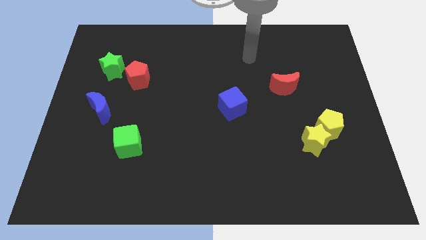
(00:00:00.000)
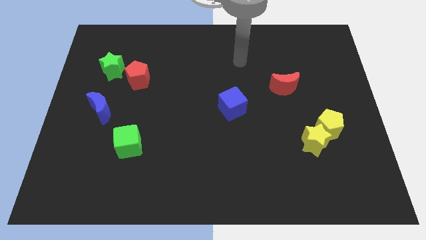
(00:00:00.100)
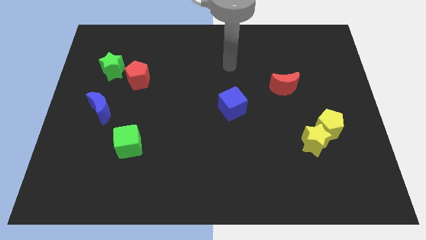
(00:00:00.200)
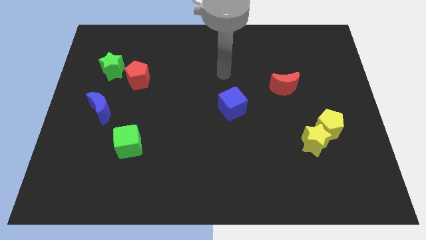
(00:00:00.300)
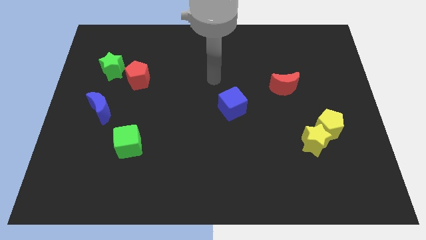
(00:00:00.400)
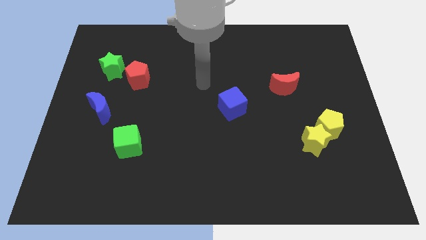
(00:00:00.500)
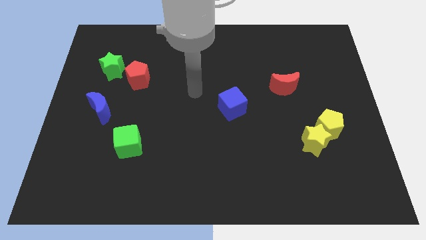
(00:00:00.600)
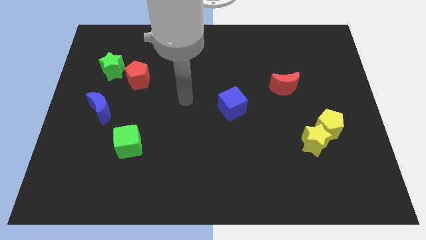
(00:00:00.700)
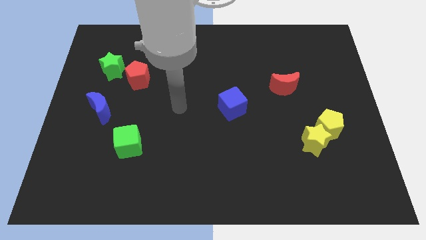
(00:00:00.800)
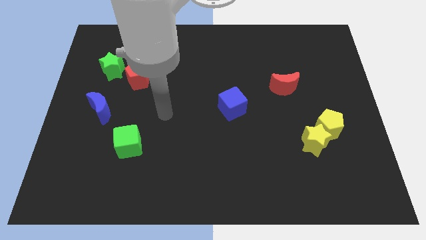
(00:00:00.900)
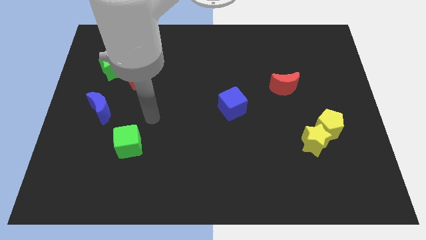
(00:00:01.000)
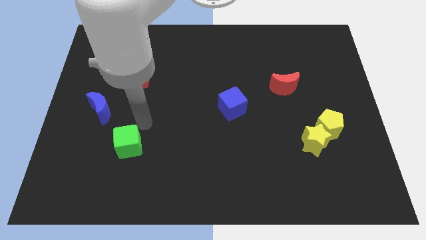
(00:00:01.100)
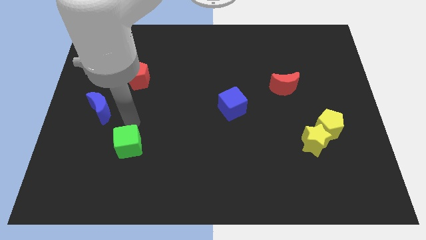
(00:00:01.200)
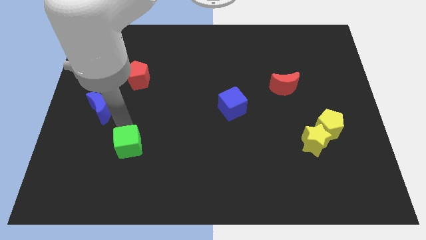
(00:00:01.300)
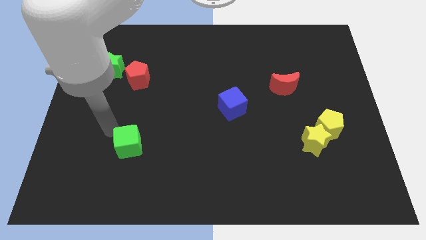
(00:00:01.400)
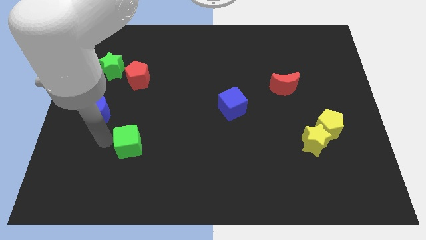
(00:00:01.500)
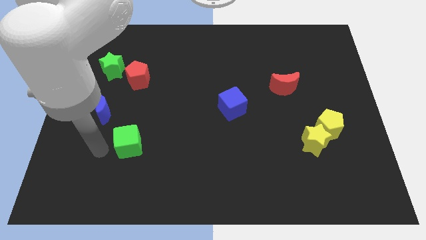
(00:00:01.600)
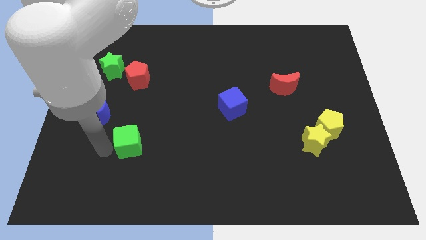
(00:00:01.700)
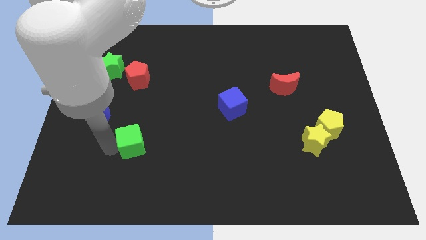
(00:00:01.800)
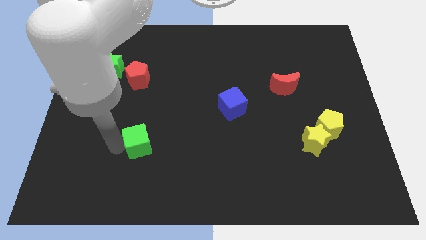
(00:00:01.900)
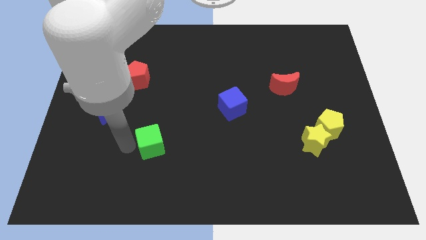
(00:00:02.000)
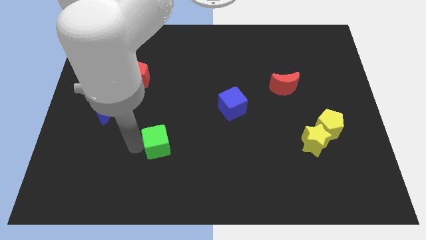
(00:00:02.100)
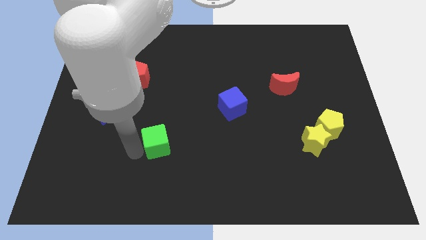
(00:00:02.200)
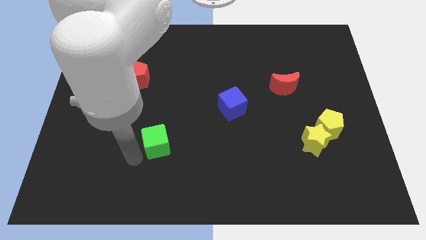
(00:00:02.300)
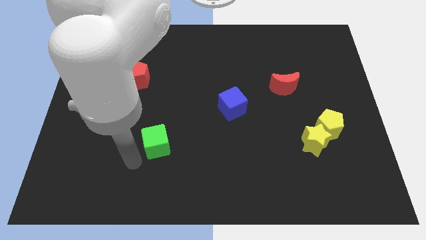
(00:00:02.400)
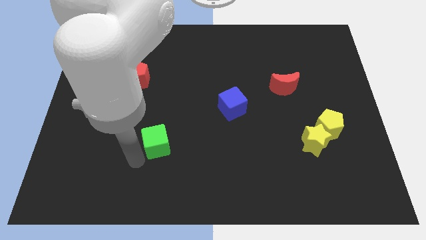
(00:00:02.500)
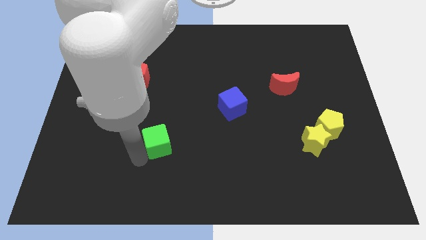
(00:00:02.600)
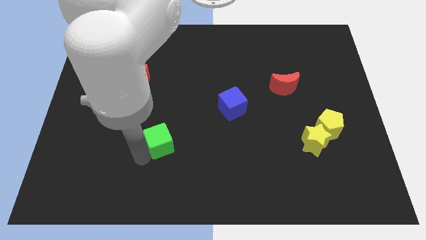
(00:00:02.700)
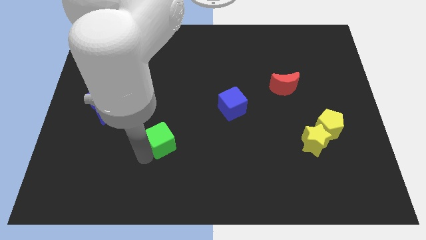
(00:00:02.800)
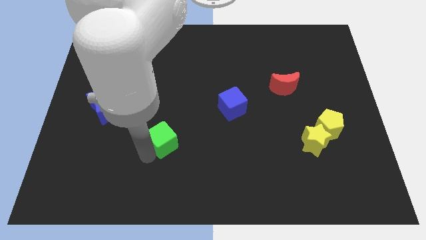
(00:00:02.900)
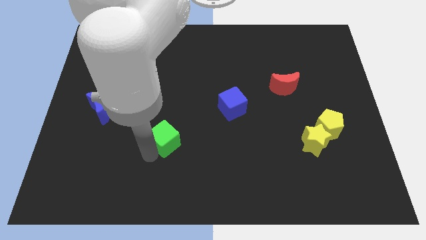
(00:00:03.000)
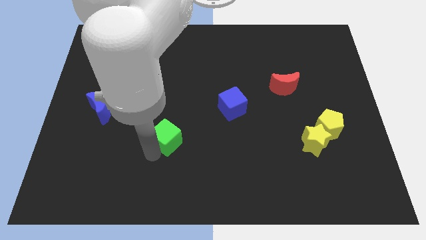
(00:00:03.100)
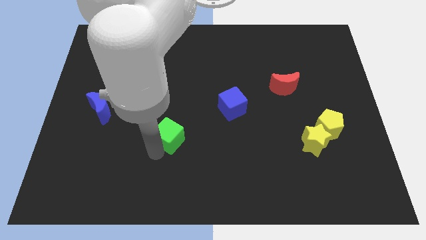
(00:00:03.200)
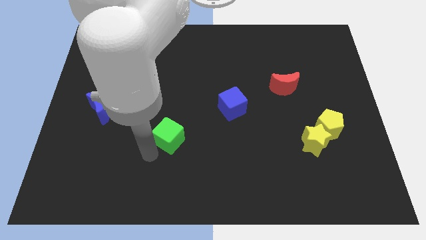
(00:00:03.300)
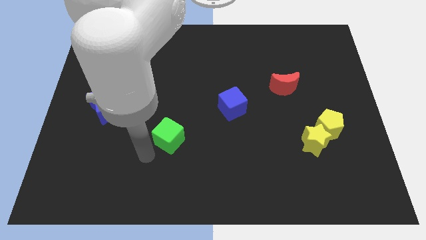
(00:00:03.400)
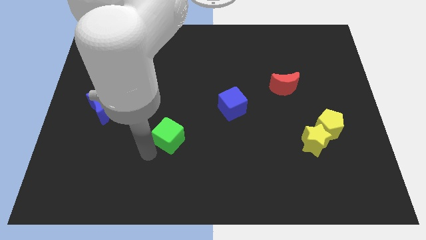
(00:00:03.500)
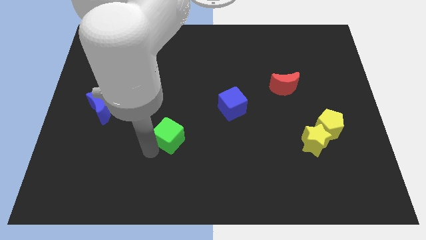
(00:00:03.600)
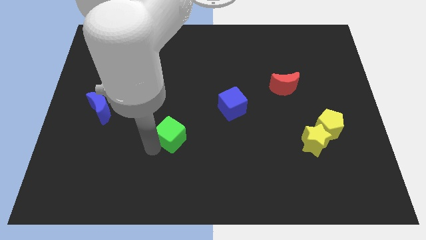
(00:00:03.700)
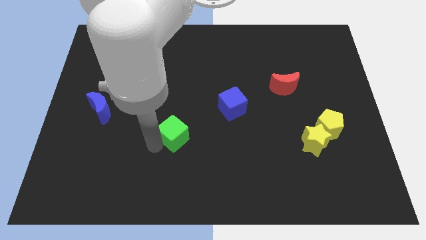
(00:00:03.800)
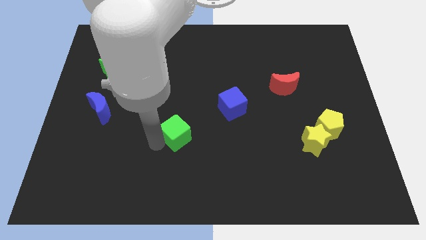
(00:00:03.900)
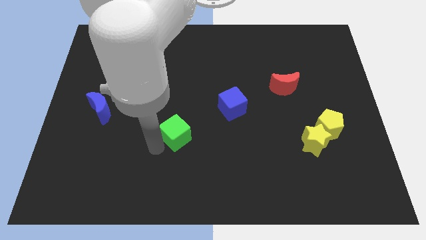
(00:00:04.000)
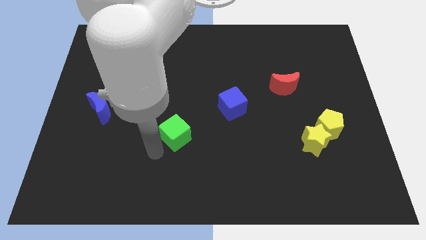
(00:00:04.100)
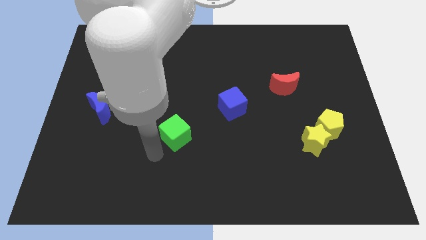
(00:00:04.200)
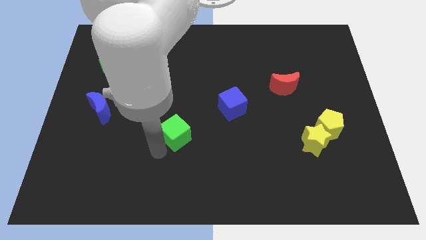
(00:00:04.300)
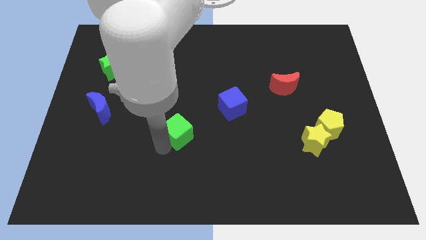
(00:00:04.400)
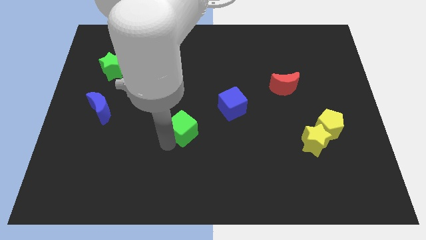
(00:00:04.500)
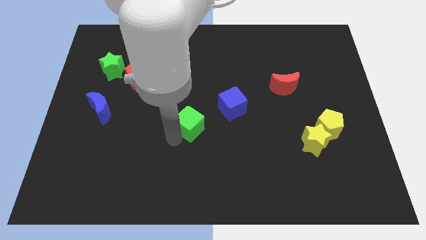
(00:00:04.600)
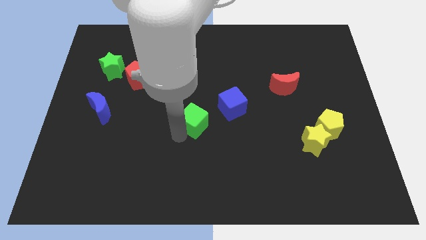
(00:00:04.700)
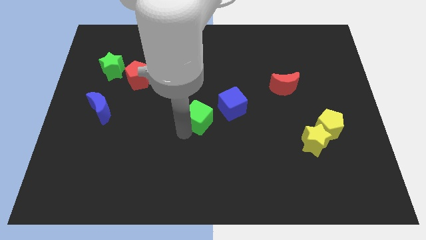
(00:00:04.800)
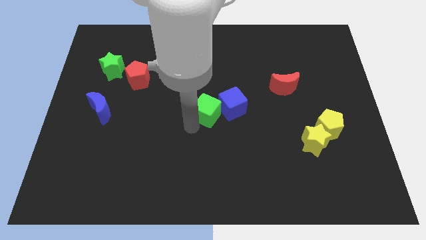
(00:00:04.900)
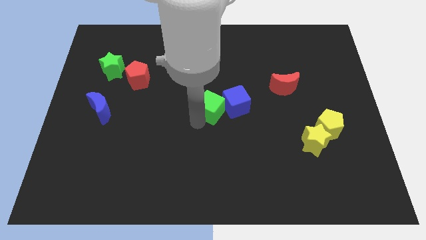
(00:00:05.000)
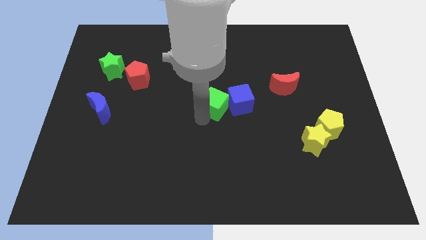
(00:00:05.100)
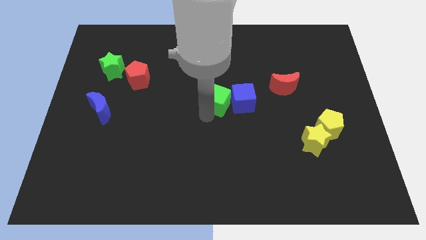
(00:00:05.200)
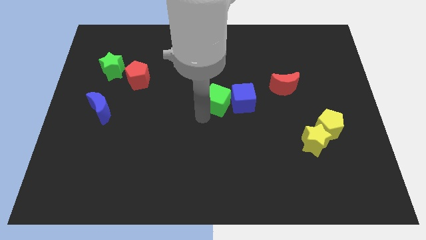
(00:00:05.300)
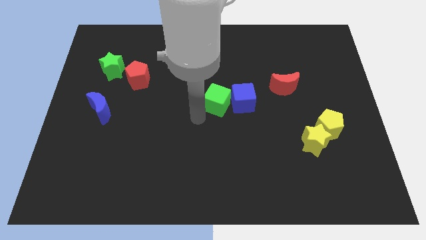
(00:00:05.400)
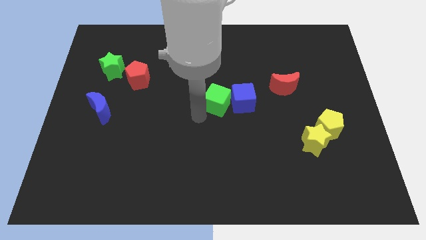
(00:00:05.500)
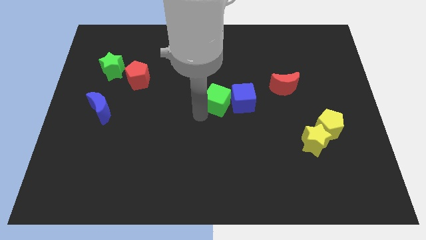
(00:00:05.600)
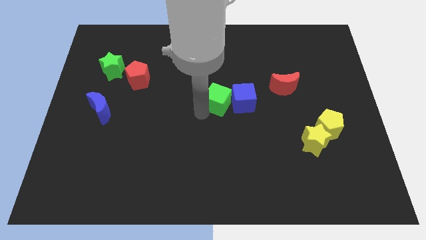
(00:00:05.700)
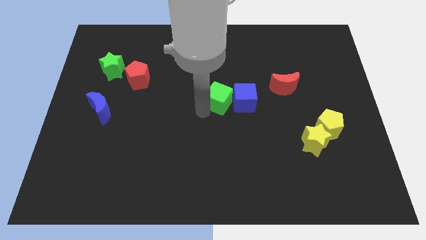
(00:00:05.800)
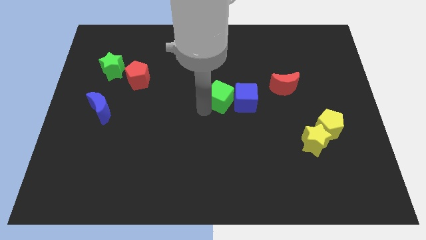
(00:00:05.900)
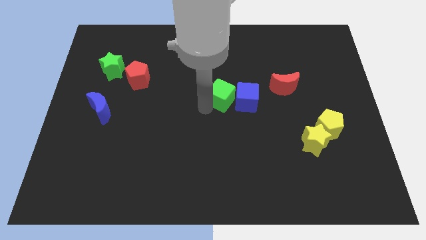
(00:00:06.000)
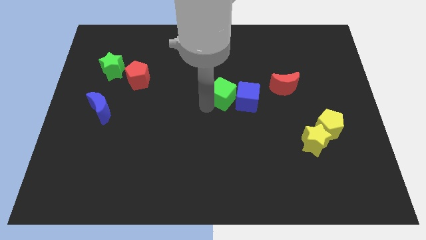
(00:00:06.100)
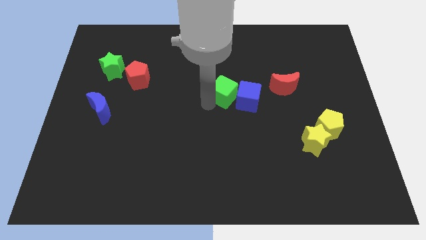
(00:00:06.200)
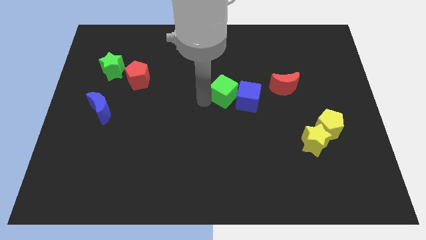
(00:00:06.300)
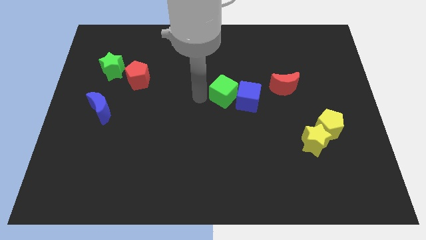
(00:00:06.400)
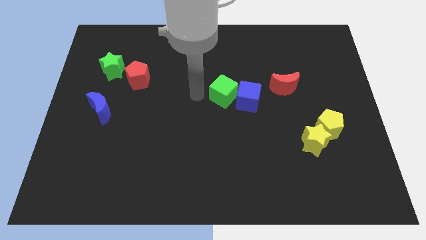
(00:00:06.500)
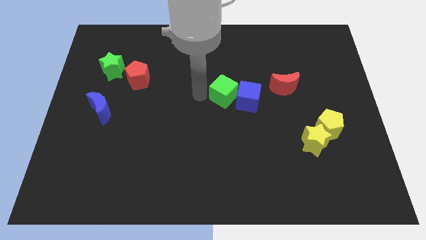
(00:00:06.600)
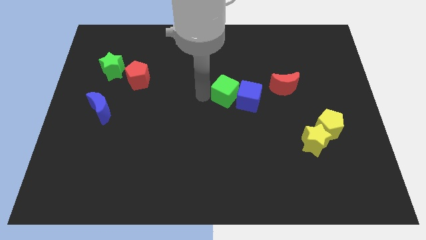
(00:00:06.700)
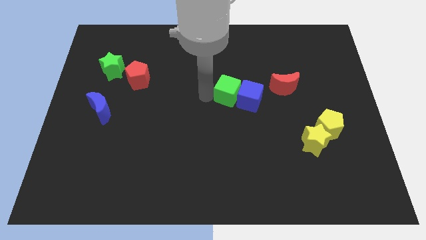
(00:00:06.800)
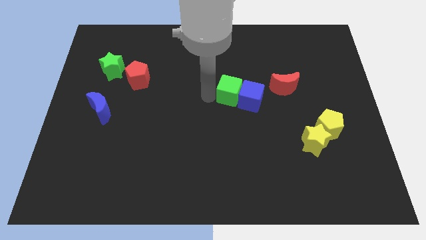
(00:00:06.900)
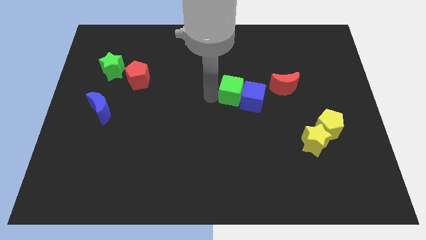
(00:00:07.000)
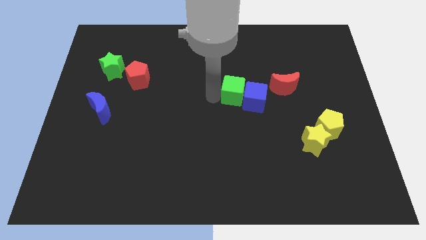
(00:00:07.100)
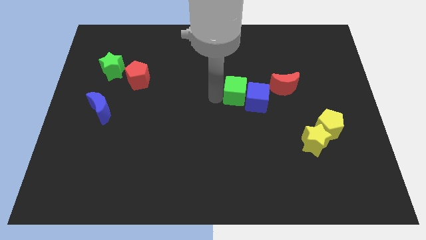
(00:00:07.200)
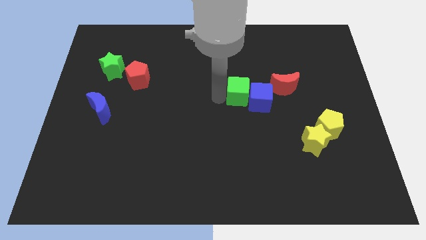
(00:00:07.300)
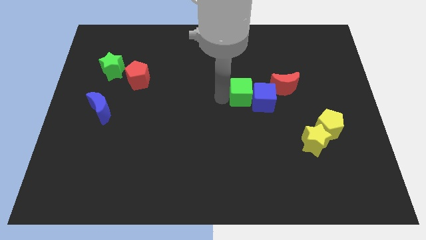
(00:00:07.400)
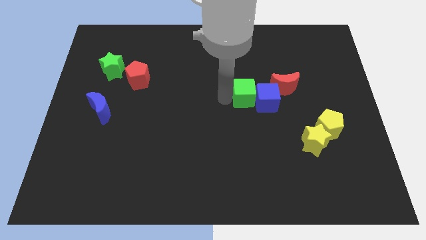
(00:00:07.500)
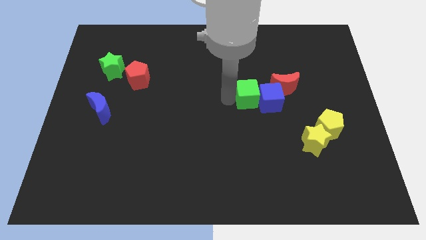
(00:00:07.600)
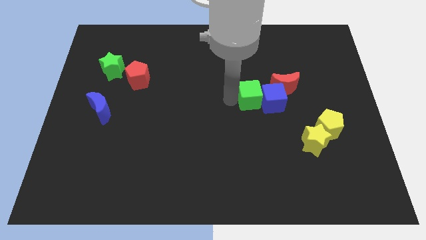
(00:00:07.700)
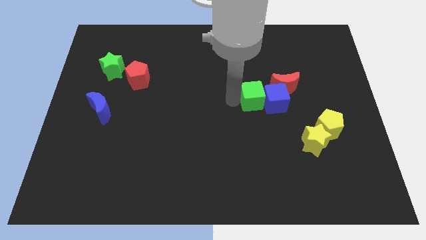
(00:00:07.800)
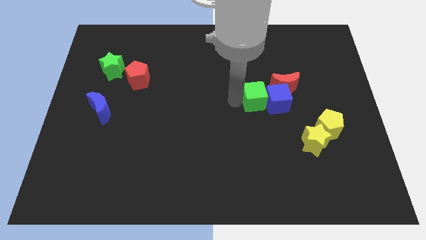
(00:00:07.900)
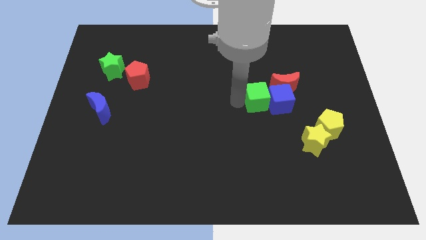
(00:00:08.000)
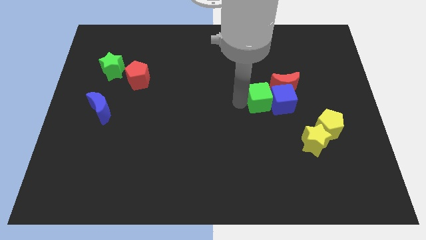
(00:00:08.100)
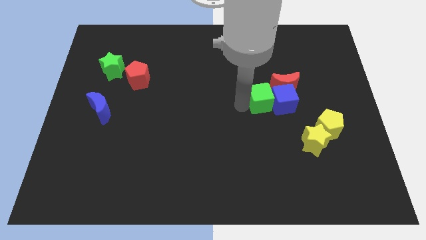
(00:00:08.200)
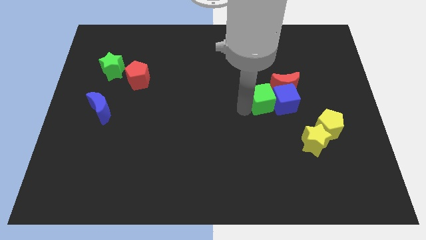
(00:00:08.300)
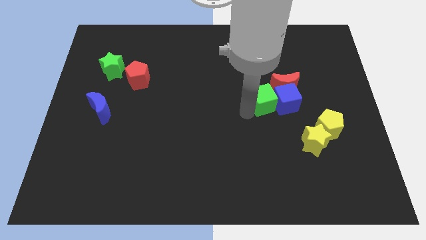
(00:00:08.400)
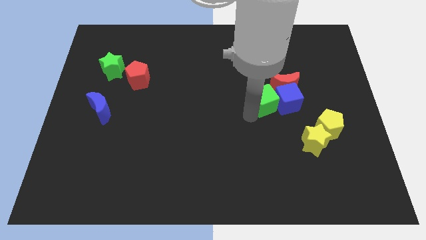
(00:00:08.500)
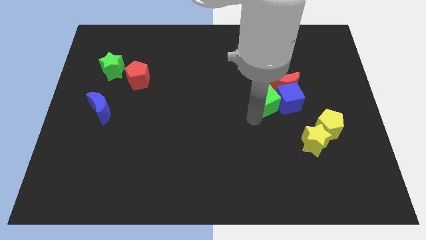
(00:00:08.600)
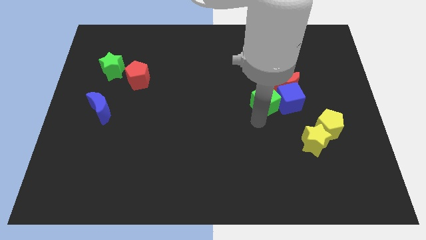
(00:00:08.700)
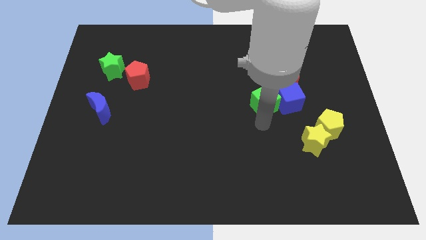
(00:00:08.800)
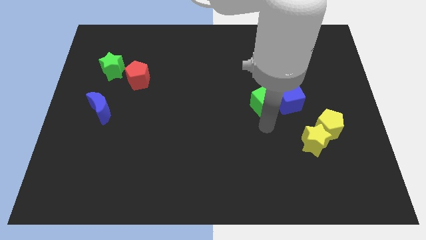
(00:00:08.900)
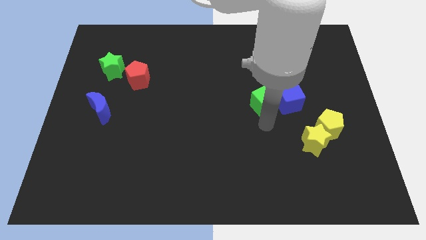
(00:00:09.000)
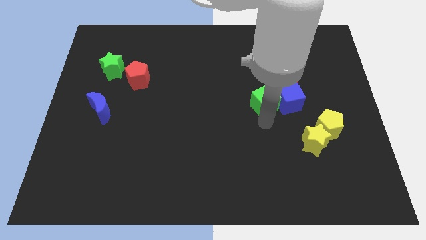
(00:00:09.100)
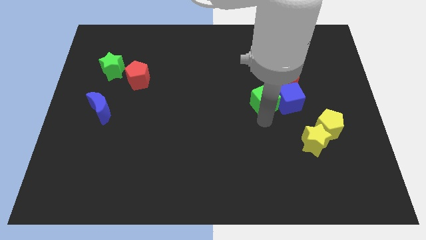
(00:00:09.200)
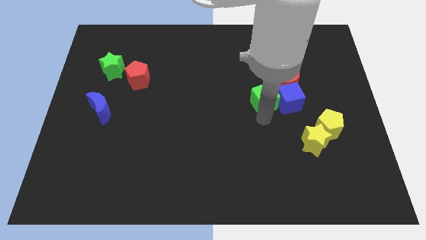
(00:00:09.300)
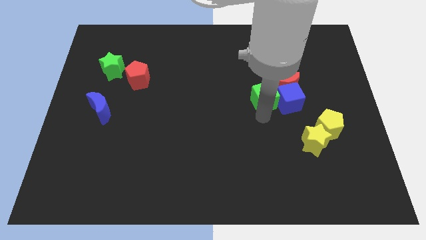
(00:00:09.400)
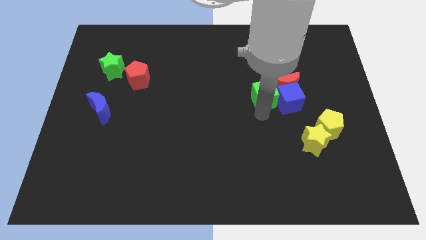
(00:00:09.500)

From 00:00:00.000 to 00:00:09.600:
move the green cube towards the red moon
